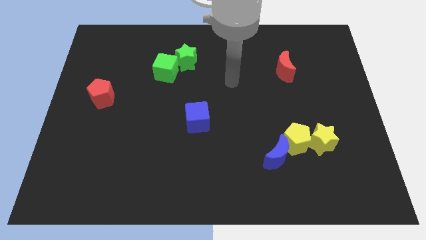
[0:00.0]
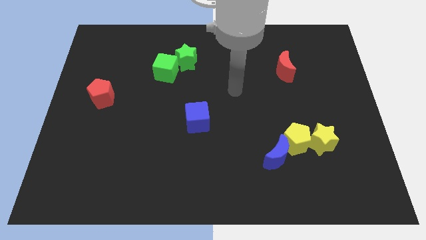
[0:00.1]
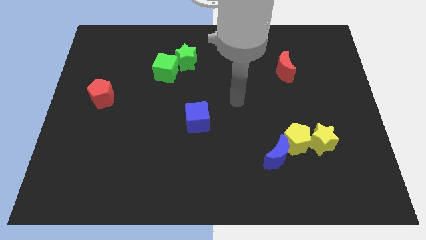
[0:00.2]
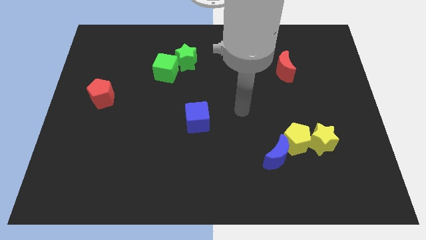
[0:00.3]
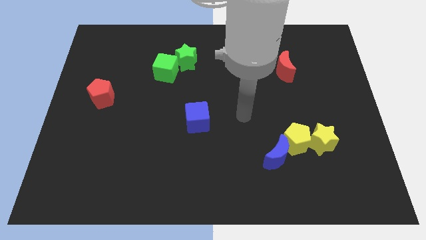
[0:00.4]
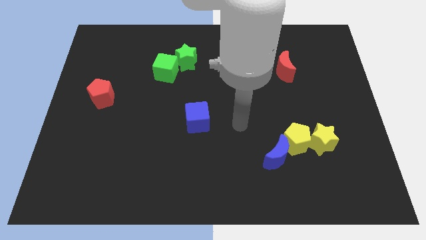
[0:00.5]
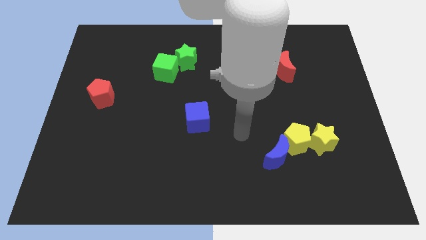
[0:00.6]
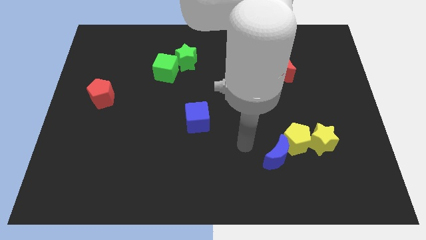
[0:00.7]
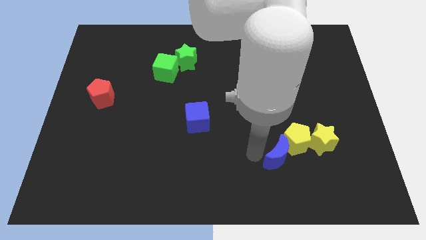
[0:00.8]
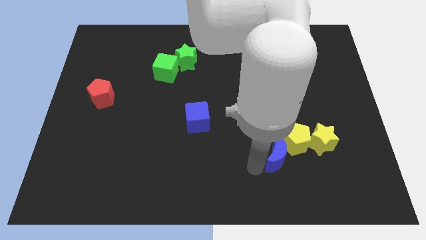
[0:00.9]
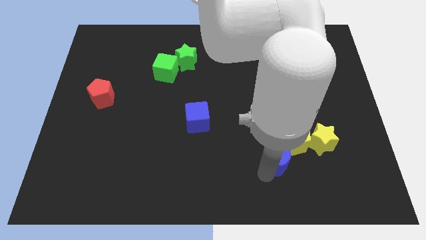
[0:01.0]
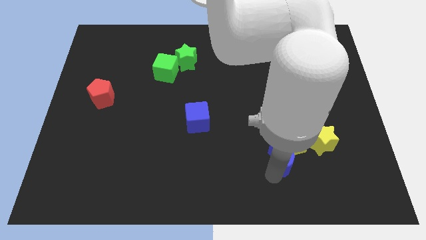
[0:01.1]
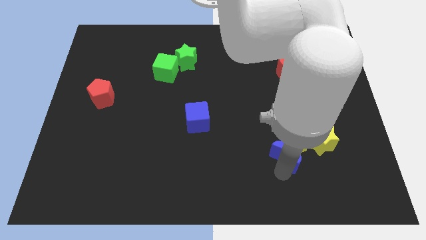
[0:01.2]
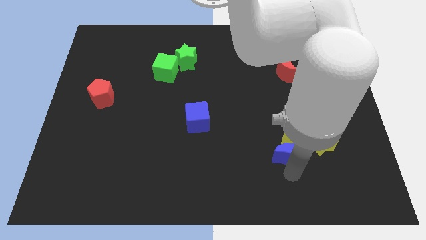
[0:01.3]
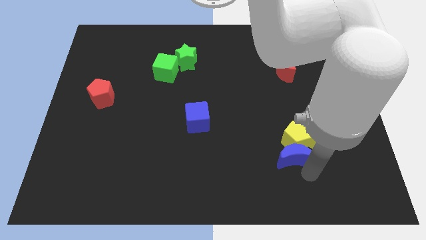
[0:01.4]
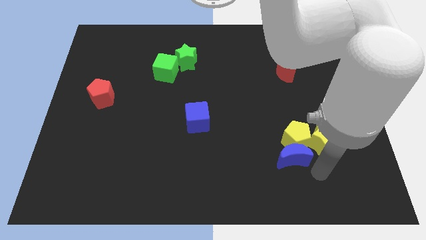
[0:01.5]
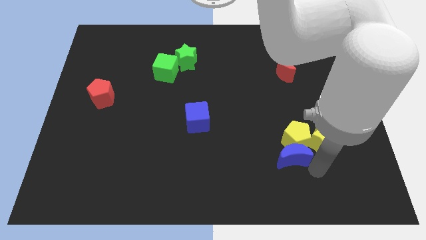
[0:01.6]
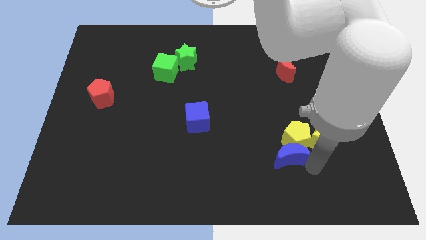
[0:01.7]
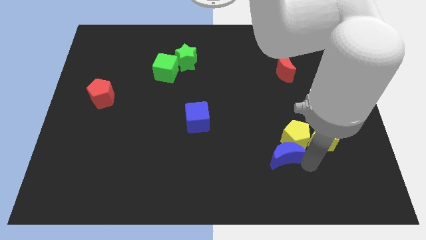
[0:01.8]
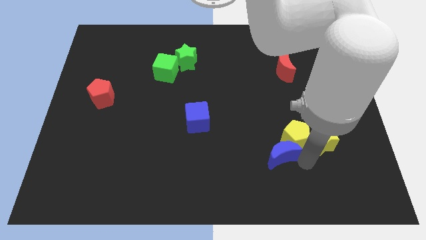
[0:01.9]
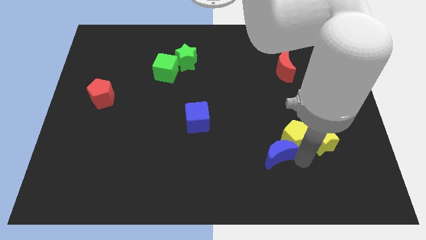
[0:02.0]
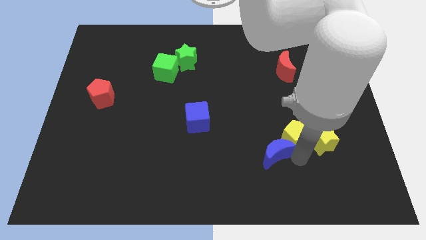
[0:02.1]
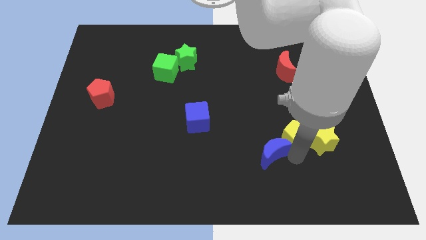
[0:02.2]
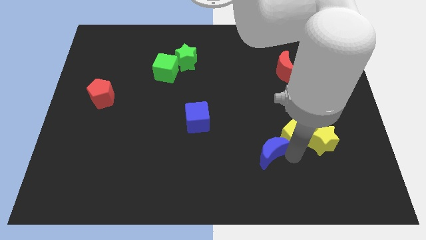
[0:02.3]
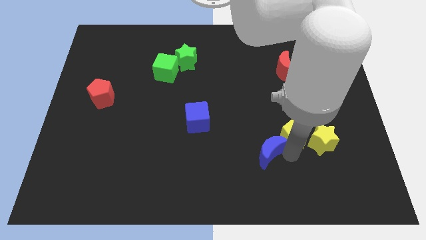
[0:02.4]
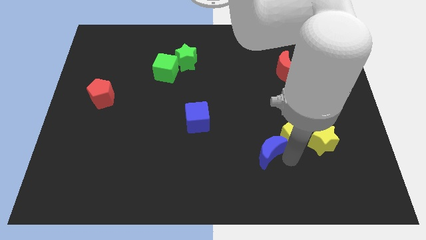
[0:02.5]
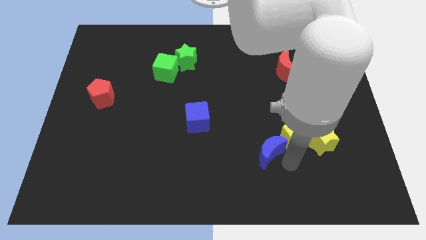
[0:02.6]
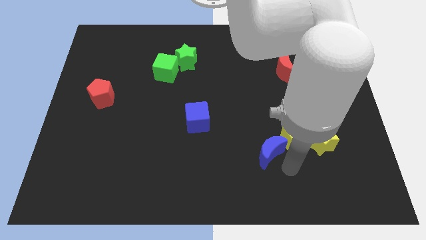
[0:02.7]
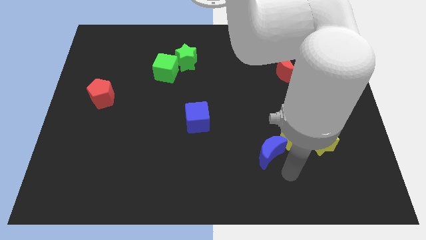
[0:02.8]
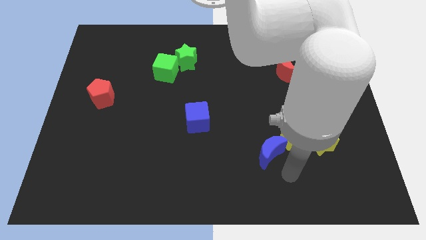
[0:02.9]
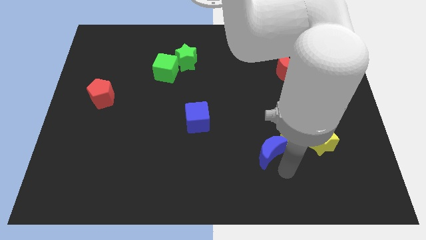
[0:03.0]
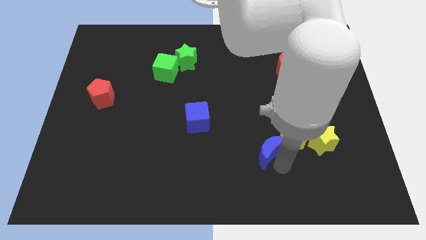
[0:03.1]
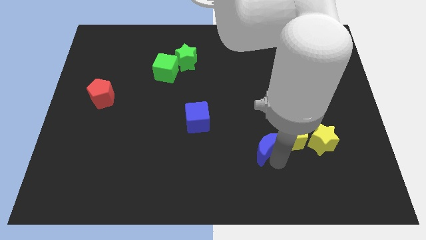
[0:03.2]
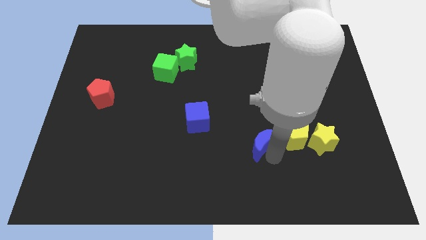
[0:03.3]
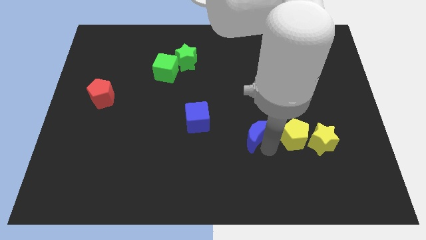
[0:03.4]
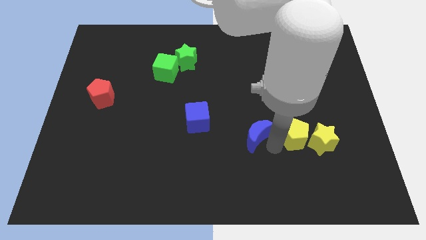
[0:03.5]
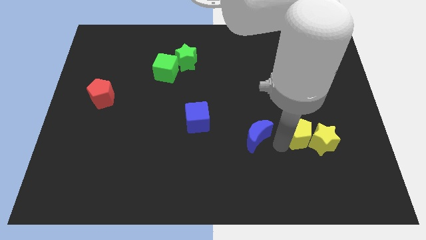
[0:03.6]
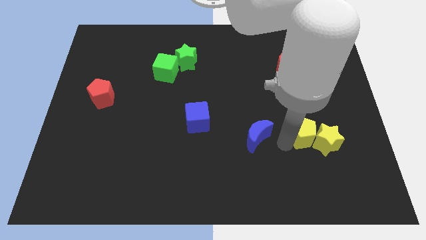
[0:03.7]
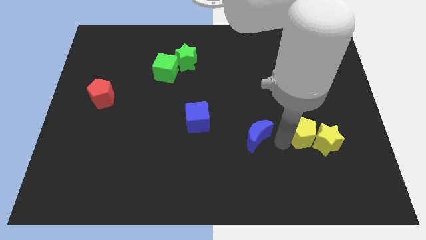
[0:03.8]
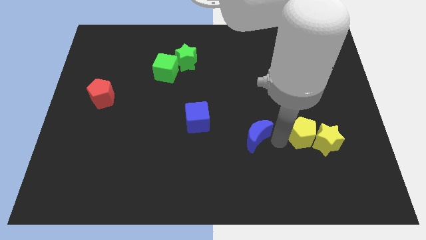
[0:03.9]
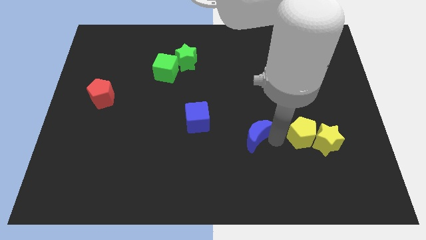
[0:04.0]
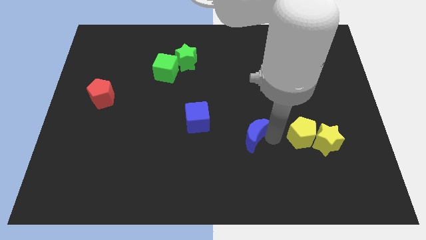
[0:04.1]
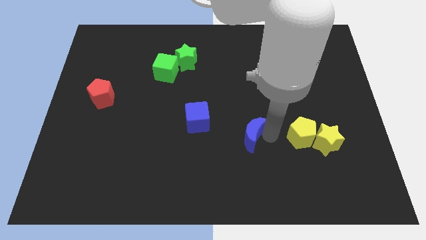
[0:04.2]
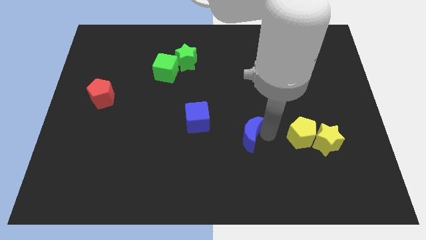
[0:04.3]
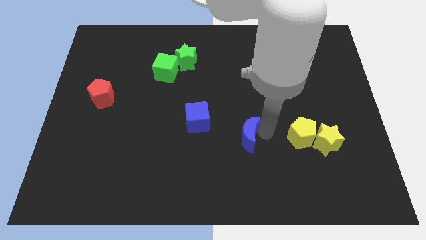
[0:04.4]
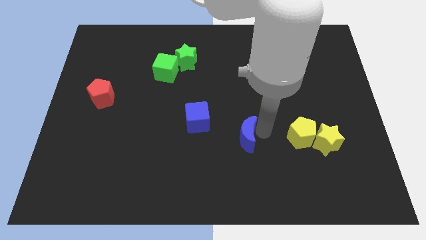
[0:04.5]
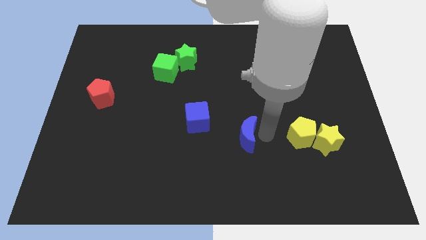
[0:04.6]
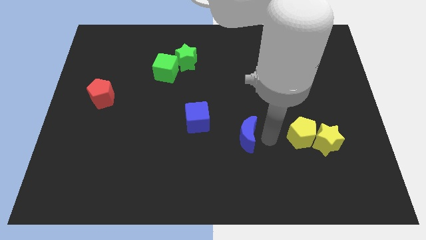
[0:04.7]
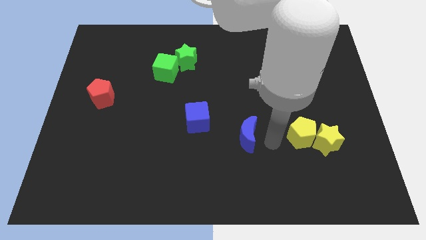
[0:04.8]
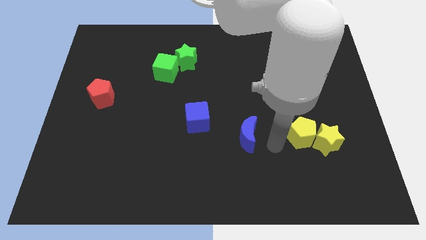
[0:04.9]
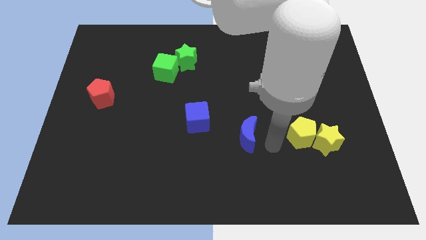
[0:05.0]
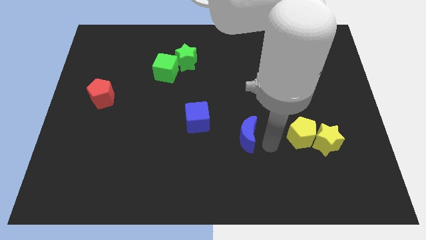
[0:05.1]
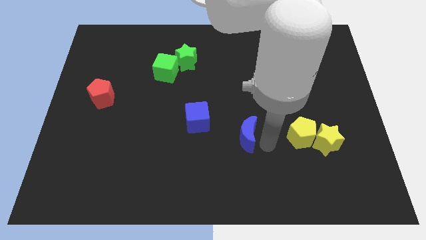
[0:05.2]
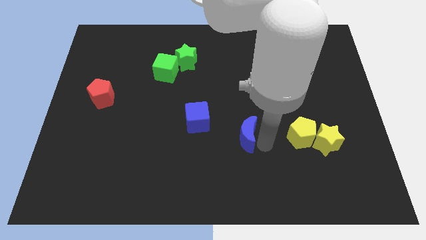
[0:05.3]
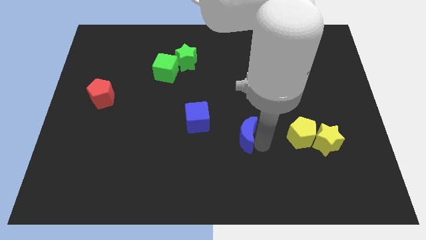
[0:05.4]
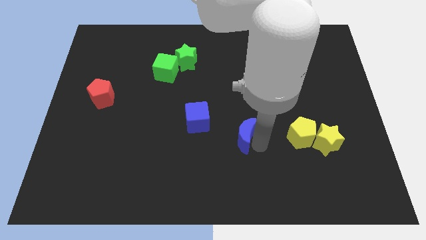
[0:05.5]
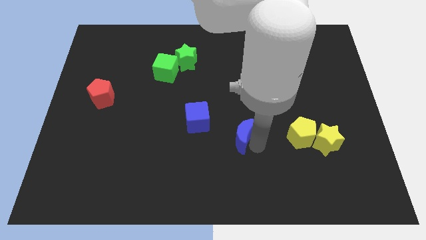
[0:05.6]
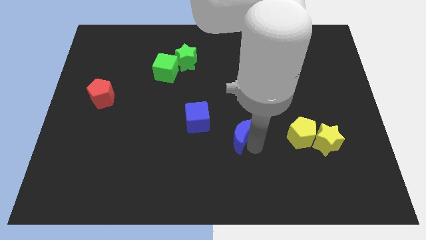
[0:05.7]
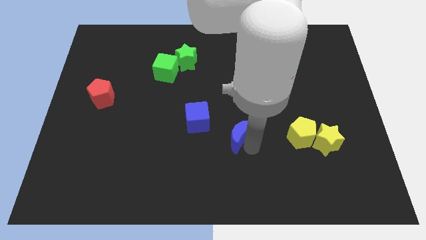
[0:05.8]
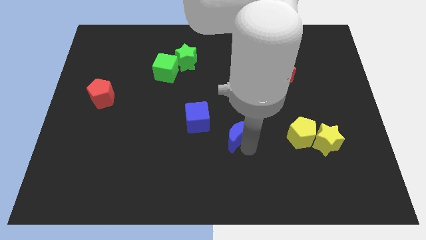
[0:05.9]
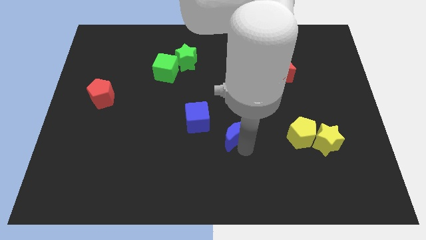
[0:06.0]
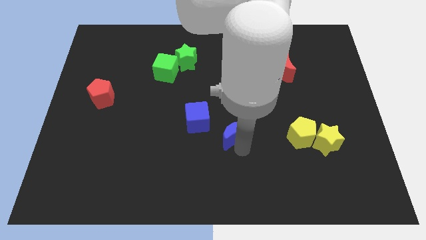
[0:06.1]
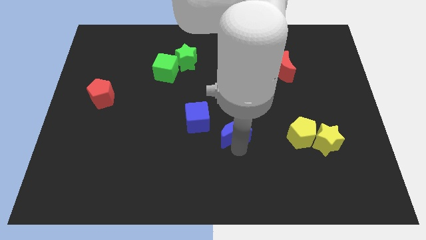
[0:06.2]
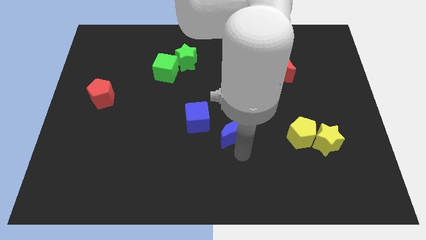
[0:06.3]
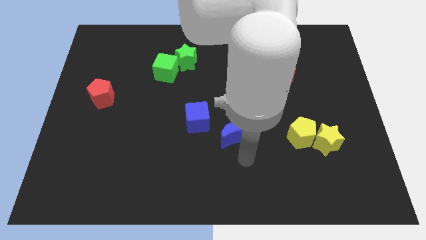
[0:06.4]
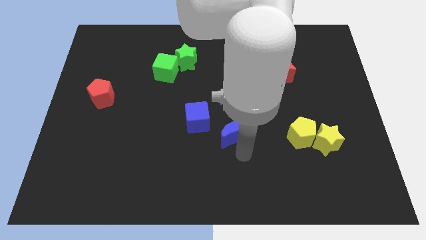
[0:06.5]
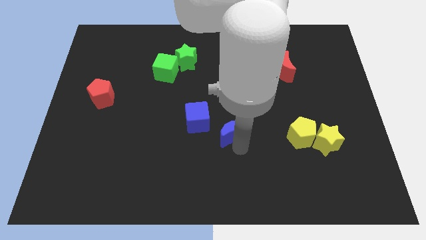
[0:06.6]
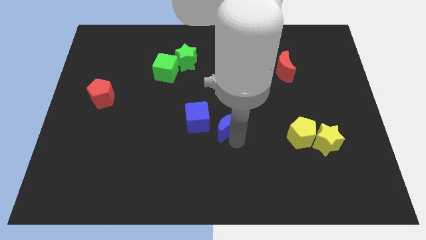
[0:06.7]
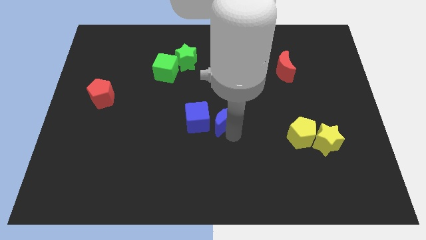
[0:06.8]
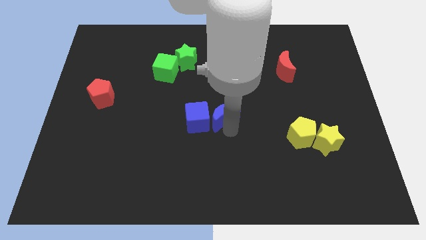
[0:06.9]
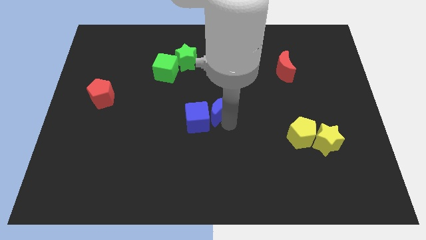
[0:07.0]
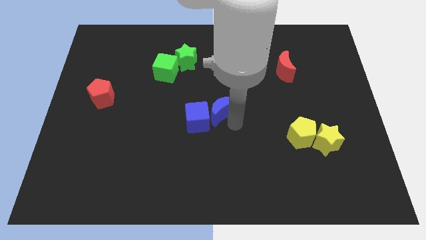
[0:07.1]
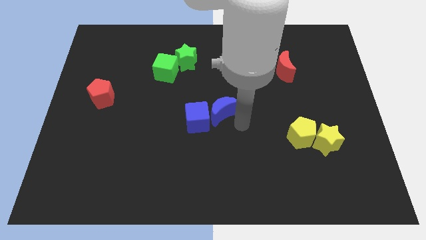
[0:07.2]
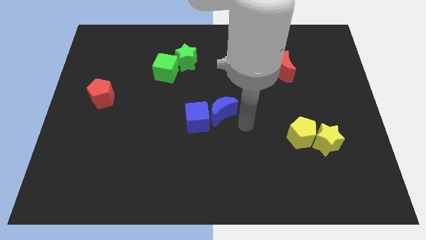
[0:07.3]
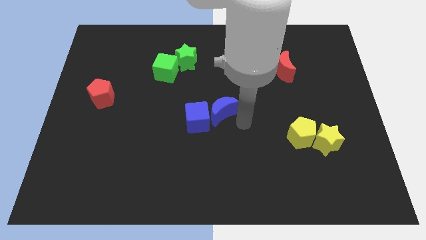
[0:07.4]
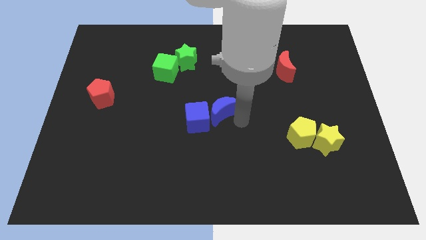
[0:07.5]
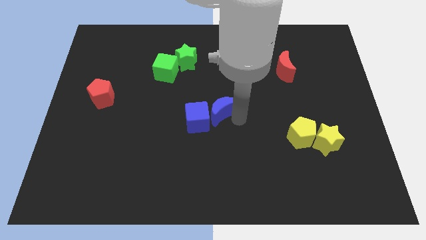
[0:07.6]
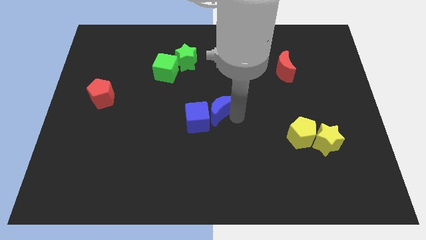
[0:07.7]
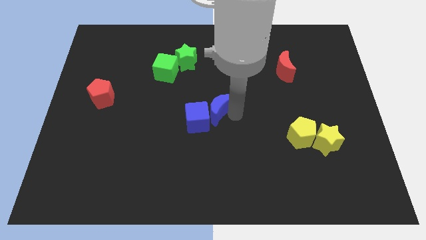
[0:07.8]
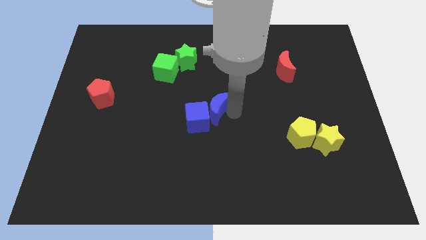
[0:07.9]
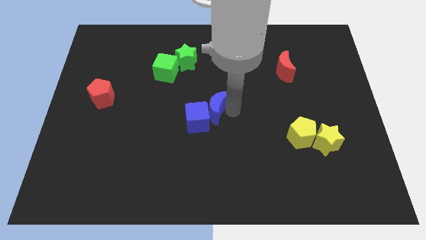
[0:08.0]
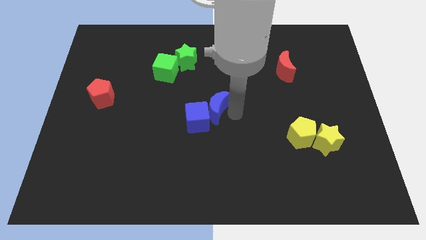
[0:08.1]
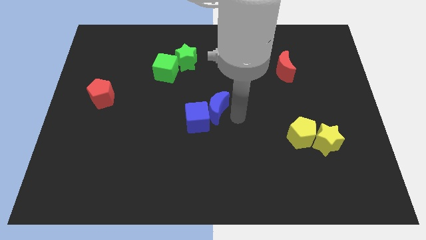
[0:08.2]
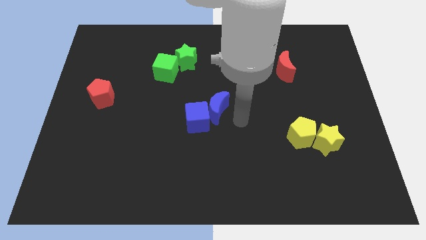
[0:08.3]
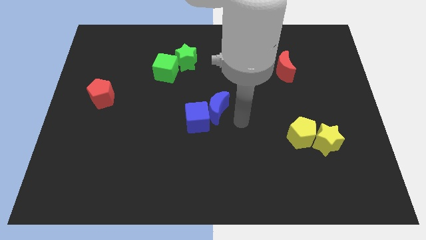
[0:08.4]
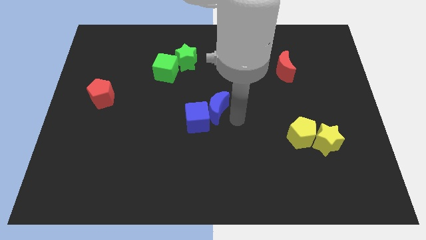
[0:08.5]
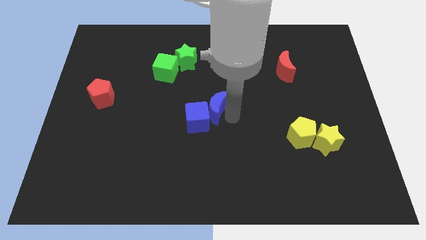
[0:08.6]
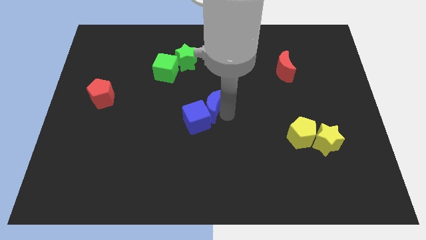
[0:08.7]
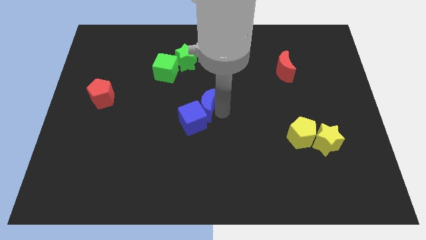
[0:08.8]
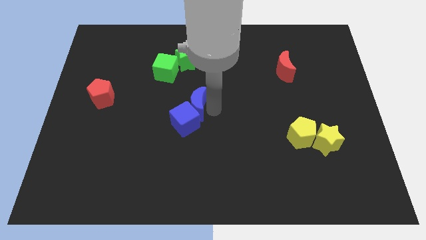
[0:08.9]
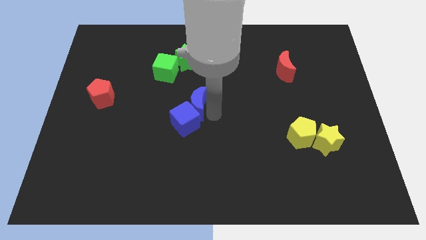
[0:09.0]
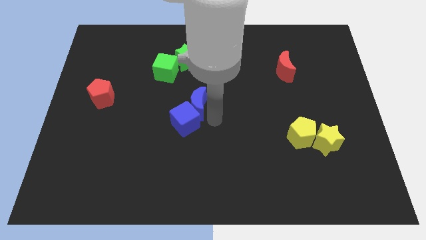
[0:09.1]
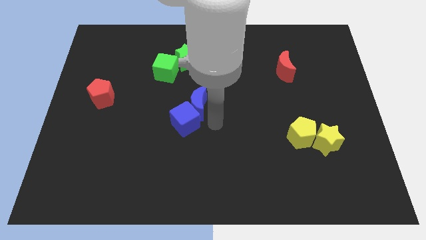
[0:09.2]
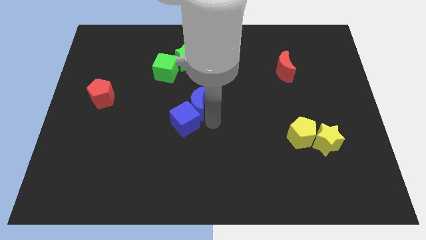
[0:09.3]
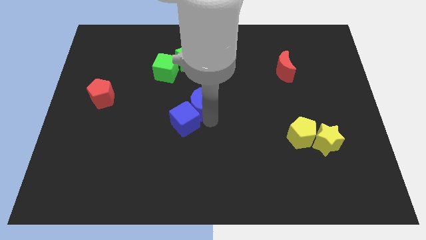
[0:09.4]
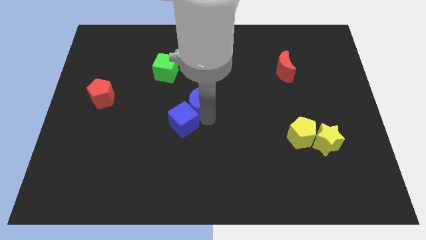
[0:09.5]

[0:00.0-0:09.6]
slide the blue moon to the bottom side of the green star
